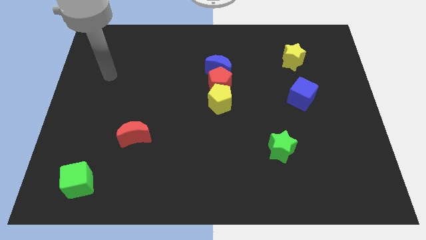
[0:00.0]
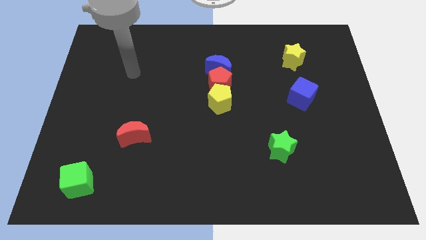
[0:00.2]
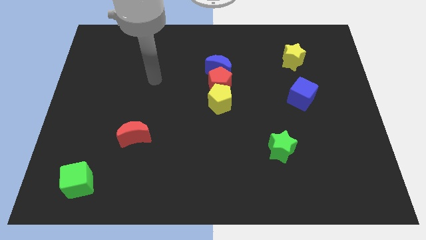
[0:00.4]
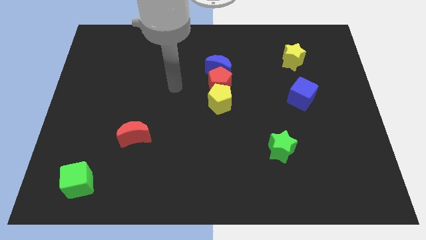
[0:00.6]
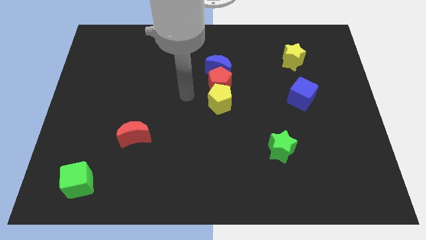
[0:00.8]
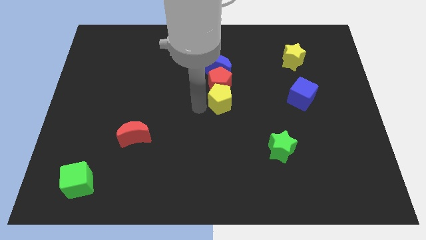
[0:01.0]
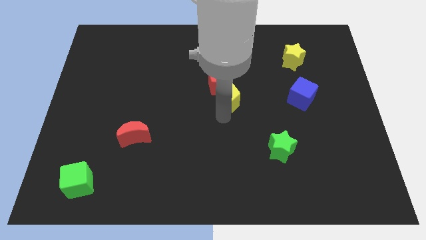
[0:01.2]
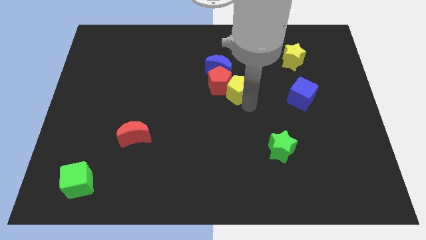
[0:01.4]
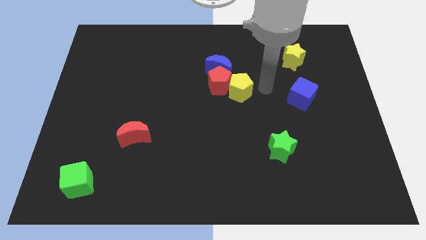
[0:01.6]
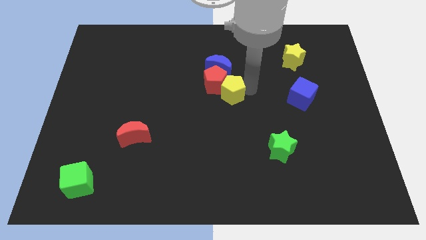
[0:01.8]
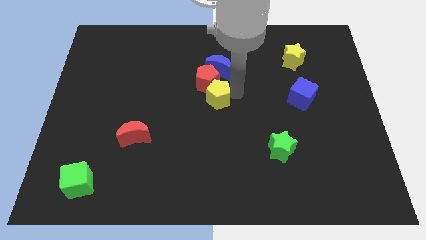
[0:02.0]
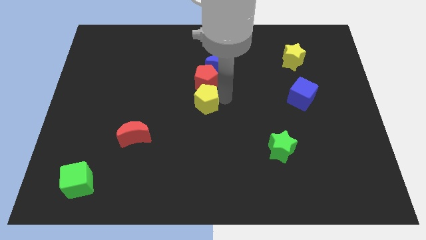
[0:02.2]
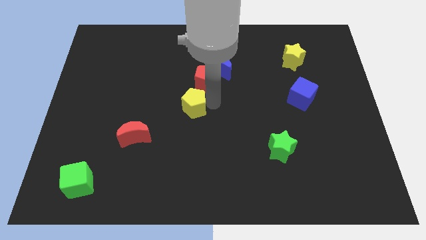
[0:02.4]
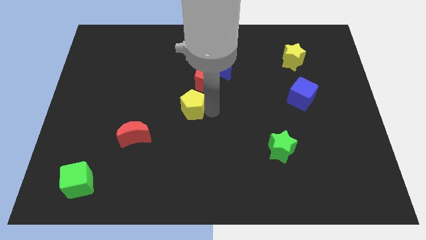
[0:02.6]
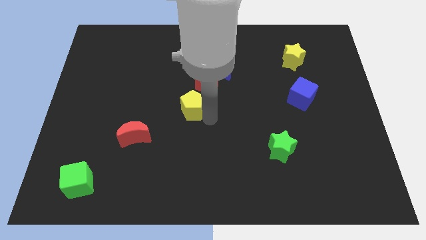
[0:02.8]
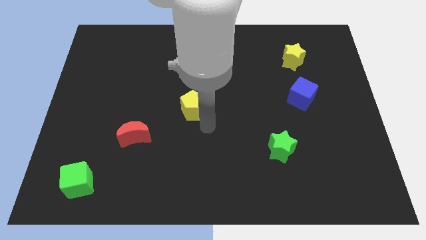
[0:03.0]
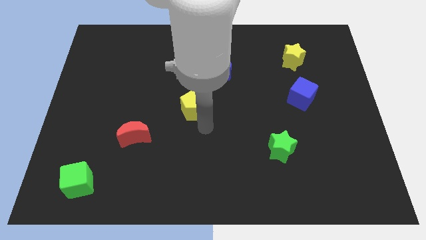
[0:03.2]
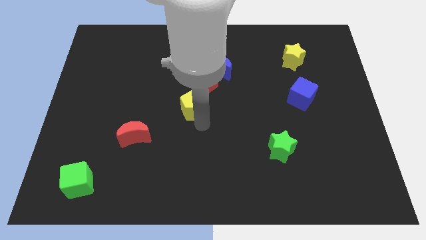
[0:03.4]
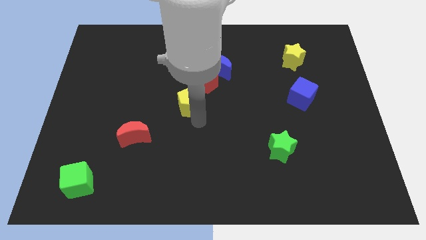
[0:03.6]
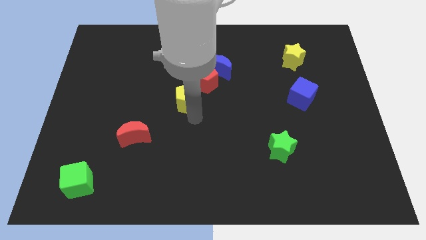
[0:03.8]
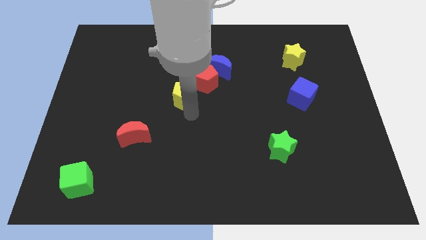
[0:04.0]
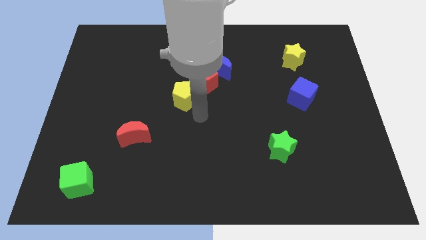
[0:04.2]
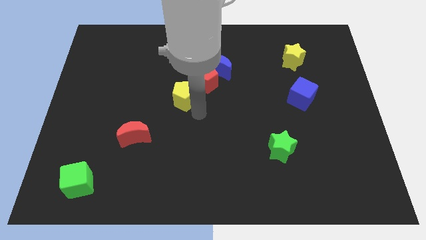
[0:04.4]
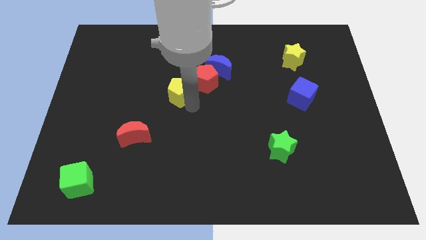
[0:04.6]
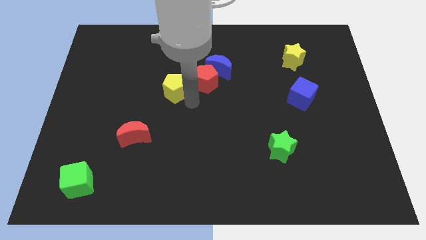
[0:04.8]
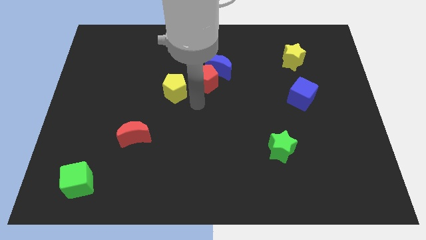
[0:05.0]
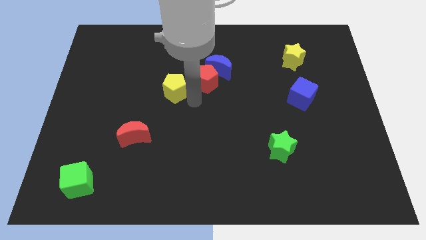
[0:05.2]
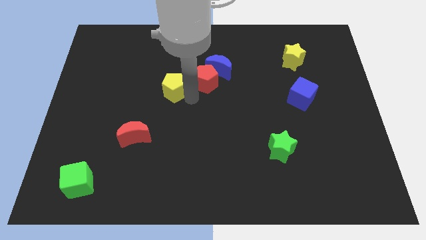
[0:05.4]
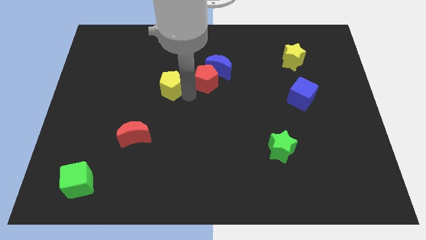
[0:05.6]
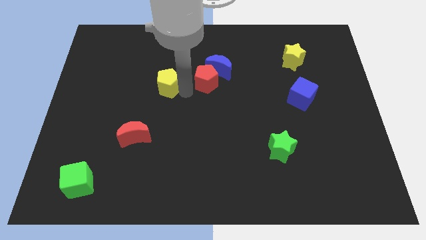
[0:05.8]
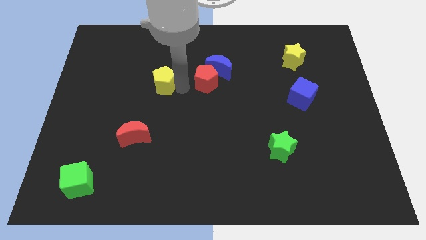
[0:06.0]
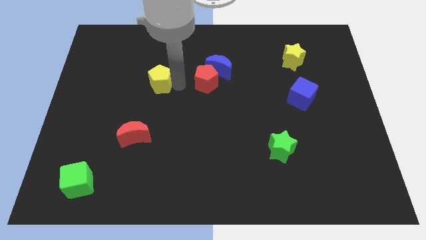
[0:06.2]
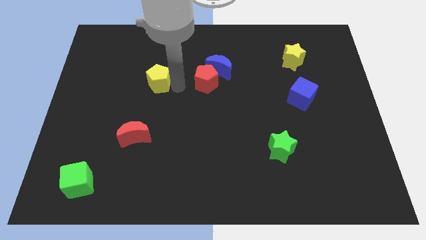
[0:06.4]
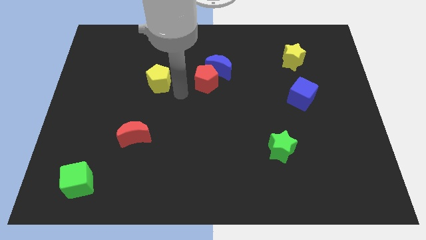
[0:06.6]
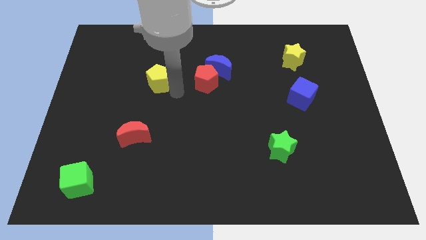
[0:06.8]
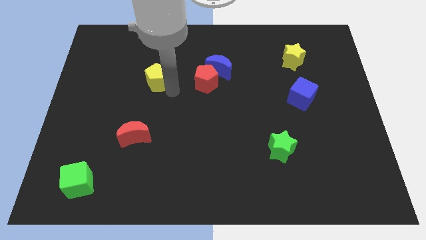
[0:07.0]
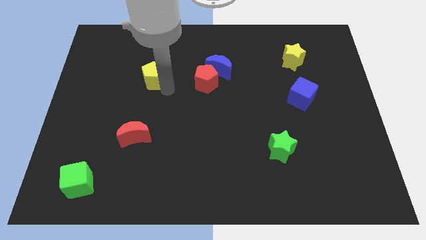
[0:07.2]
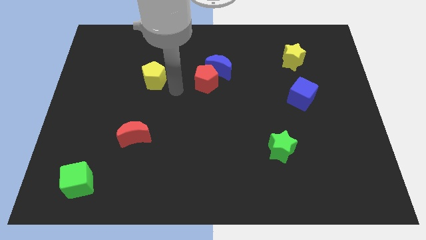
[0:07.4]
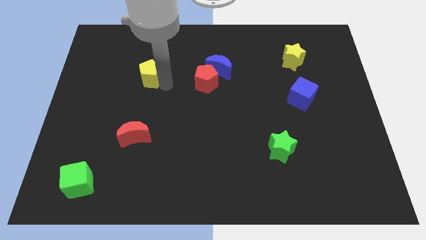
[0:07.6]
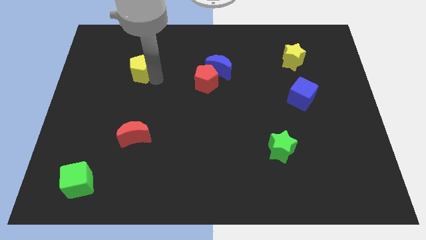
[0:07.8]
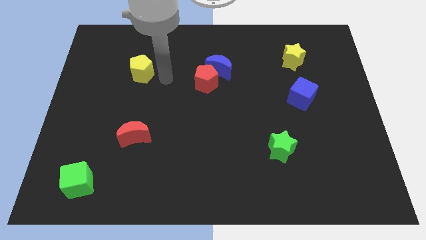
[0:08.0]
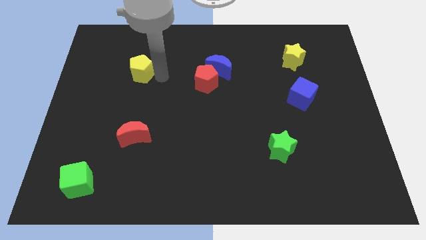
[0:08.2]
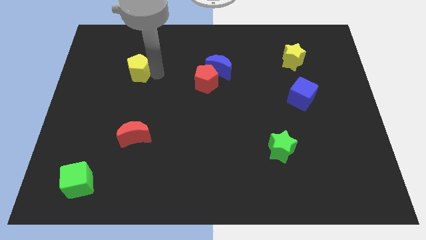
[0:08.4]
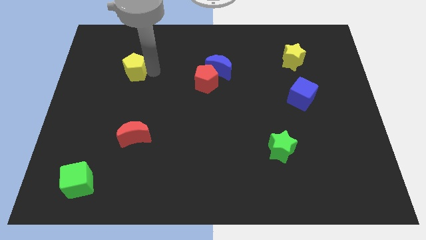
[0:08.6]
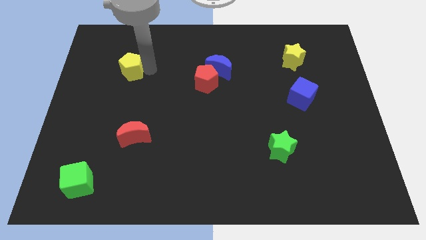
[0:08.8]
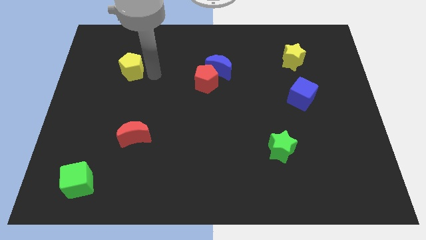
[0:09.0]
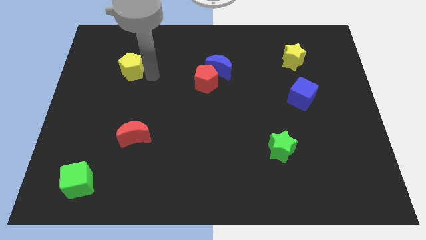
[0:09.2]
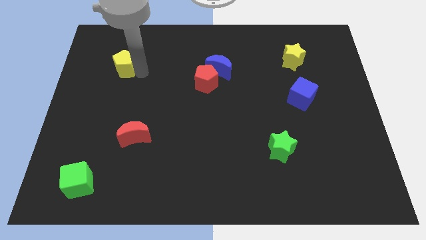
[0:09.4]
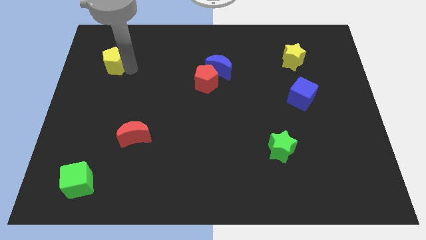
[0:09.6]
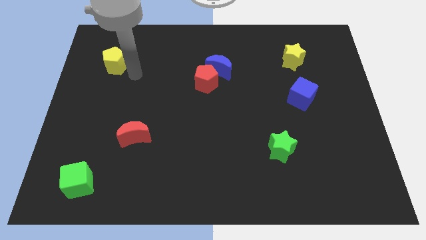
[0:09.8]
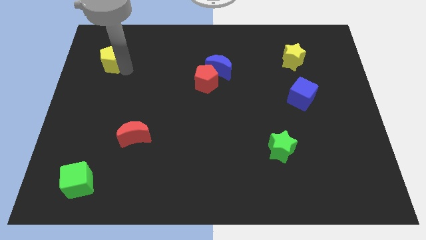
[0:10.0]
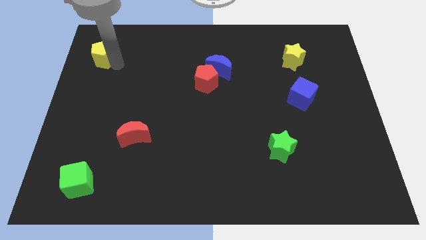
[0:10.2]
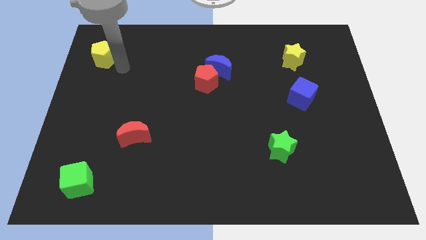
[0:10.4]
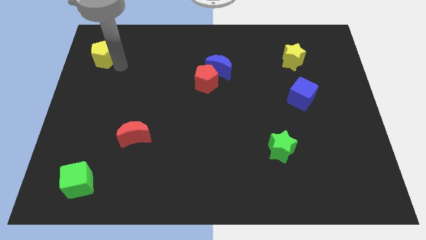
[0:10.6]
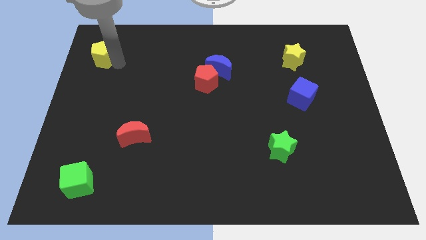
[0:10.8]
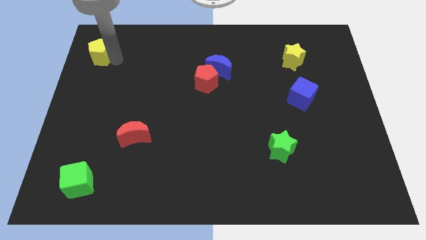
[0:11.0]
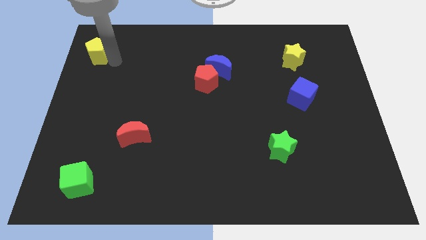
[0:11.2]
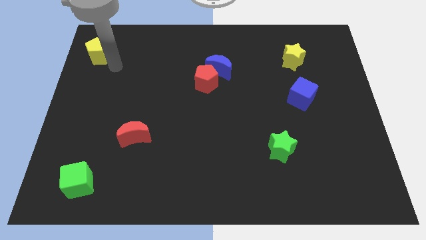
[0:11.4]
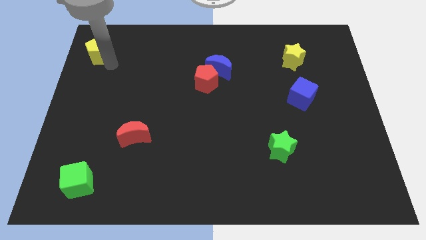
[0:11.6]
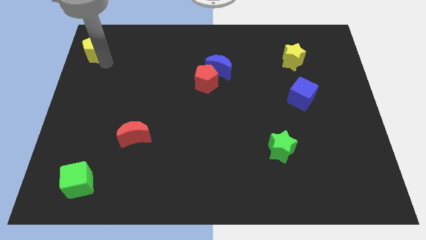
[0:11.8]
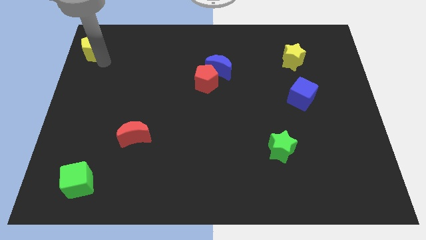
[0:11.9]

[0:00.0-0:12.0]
move the yellow pentagon to the top left corner

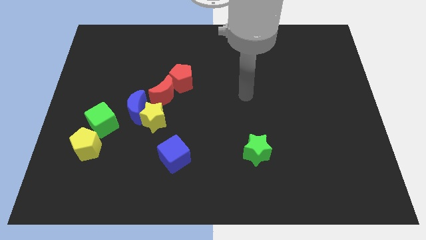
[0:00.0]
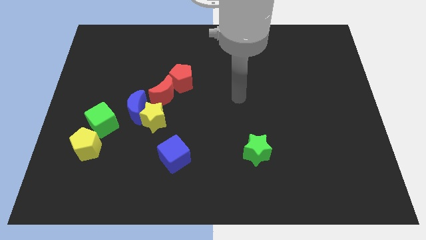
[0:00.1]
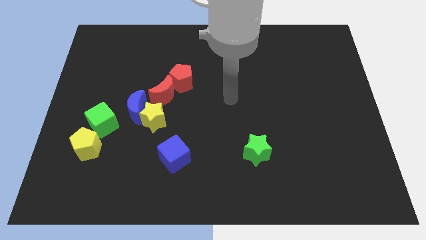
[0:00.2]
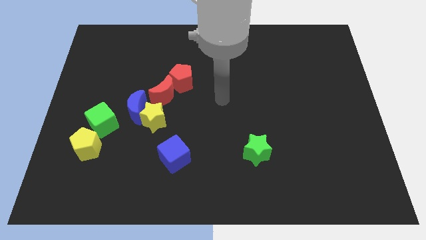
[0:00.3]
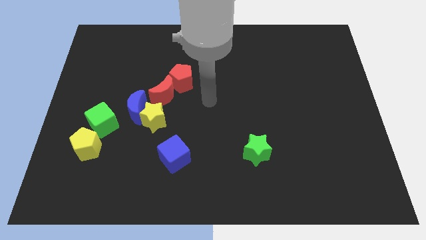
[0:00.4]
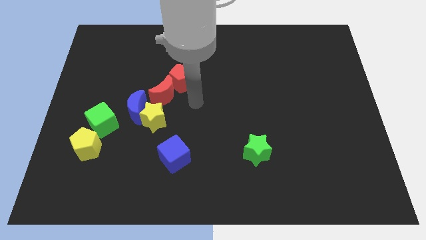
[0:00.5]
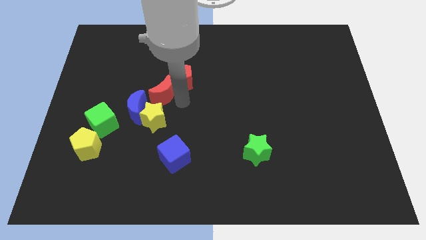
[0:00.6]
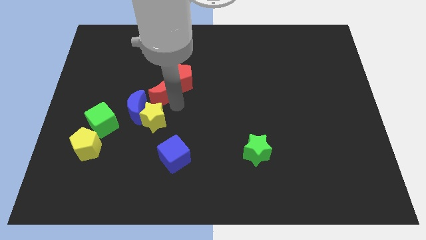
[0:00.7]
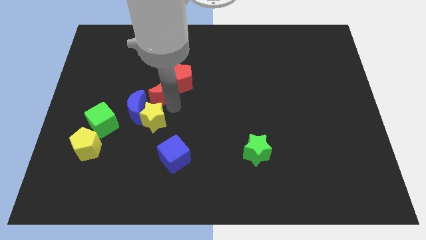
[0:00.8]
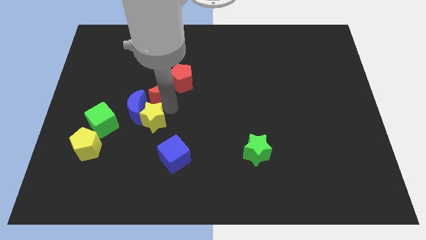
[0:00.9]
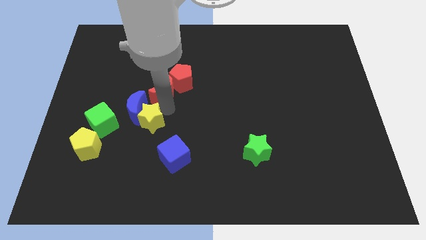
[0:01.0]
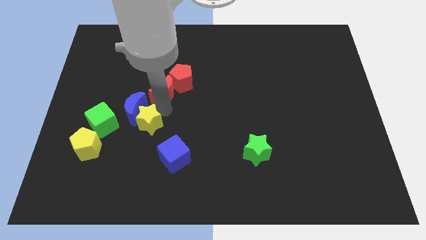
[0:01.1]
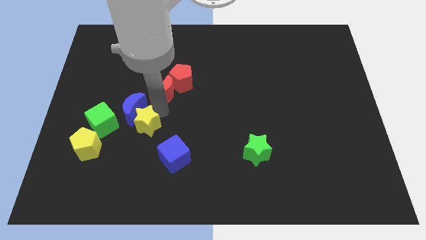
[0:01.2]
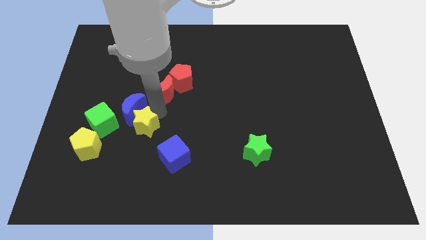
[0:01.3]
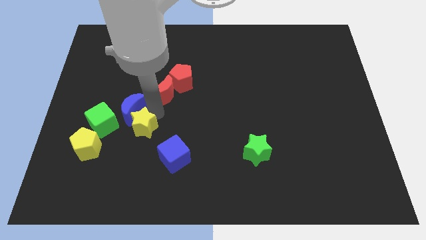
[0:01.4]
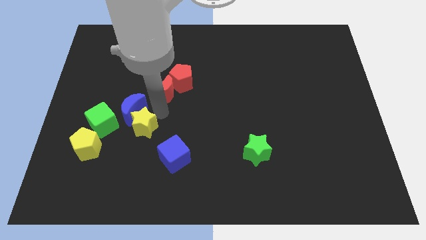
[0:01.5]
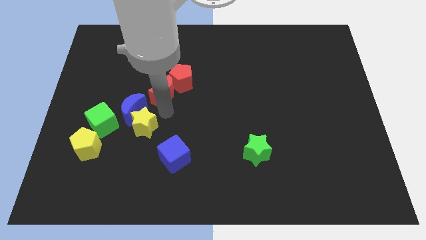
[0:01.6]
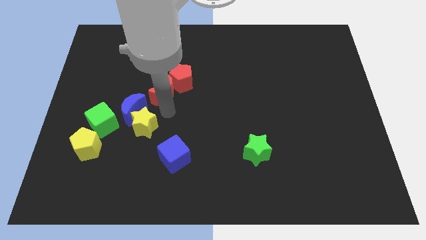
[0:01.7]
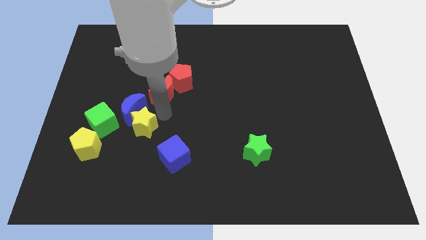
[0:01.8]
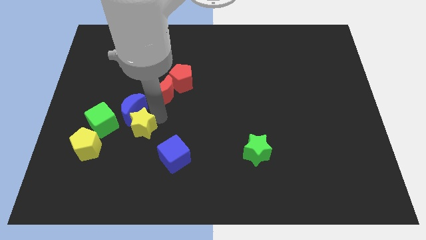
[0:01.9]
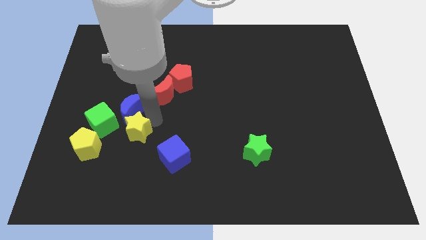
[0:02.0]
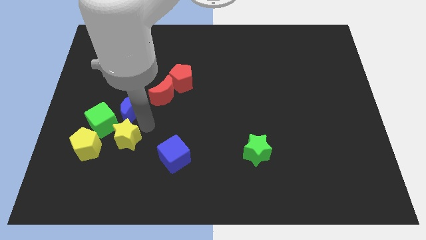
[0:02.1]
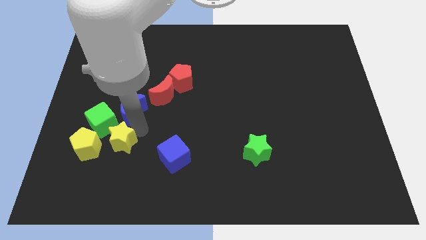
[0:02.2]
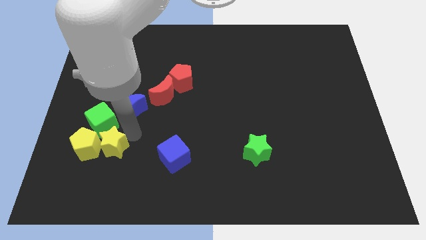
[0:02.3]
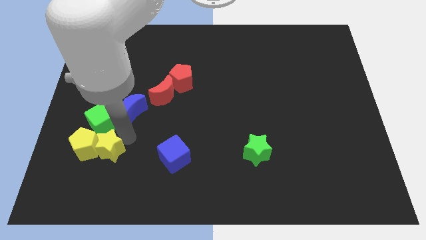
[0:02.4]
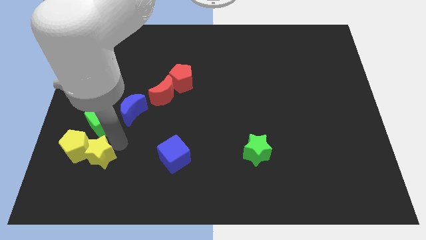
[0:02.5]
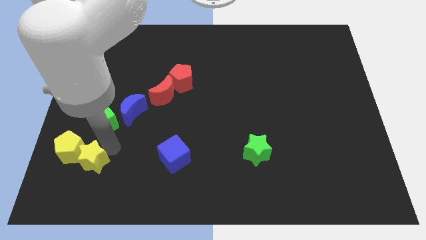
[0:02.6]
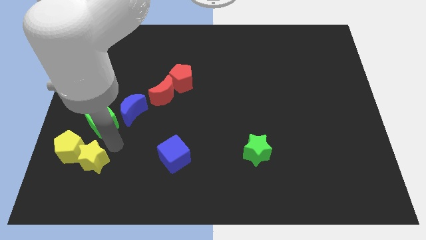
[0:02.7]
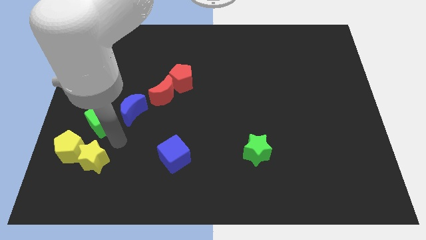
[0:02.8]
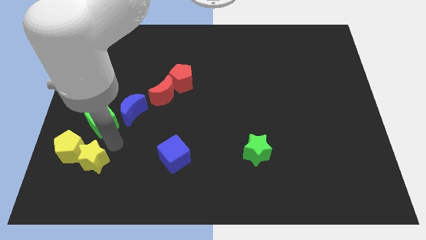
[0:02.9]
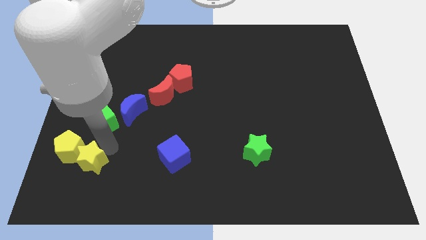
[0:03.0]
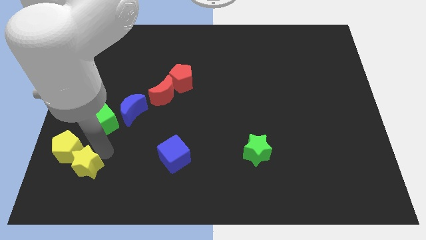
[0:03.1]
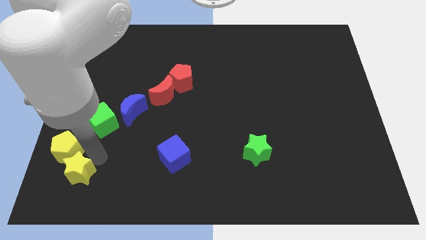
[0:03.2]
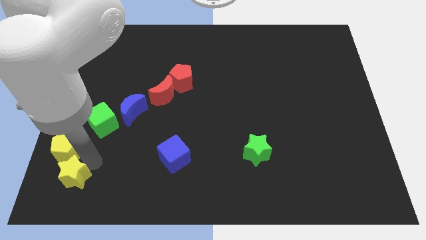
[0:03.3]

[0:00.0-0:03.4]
push the yellow star to the bottom left
